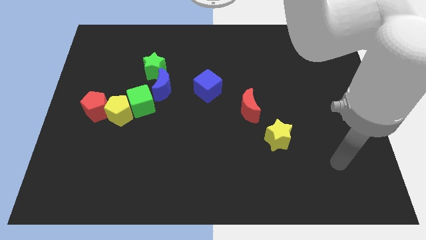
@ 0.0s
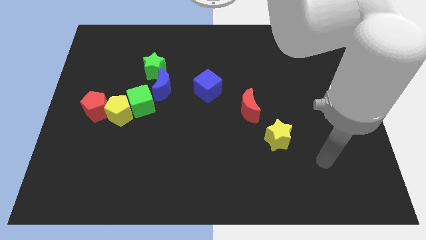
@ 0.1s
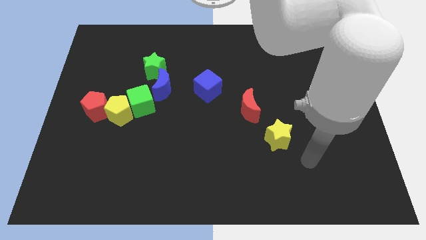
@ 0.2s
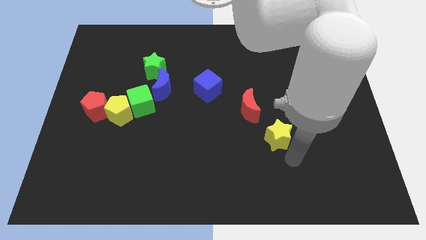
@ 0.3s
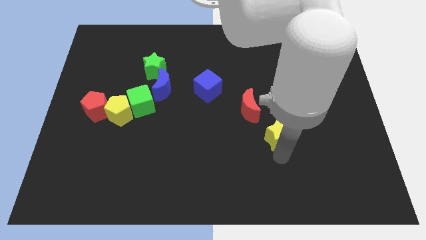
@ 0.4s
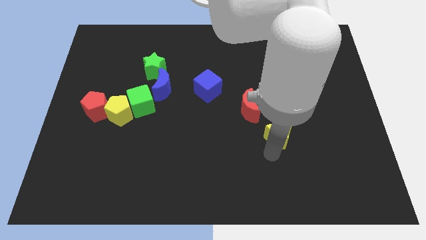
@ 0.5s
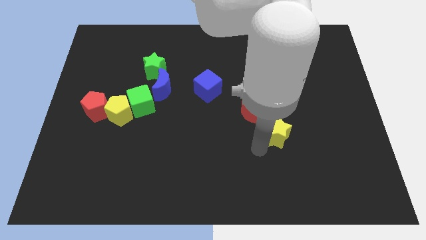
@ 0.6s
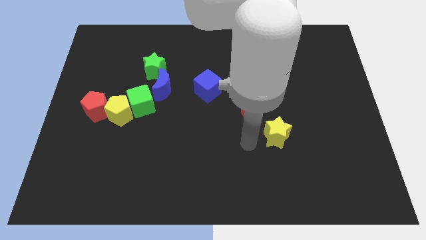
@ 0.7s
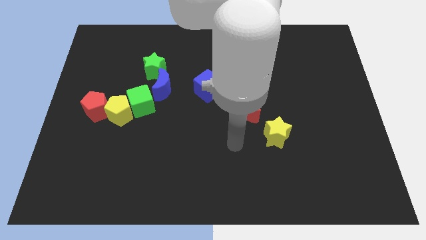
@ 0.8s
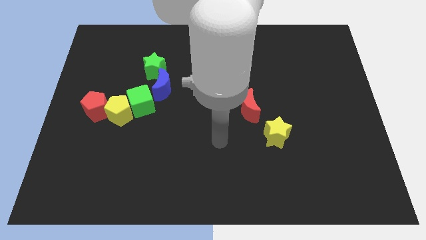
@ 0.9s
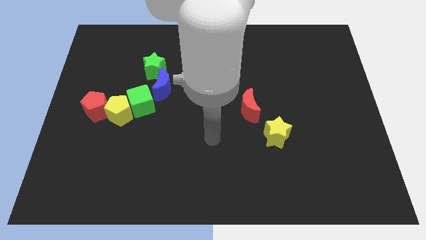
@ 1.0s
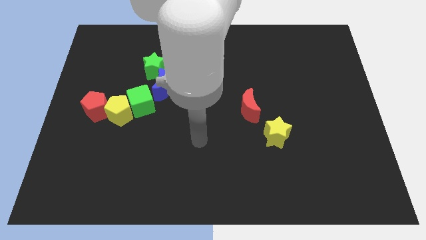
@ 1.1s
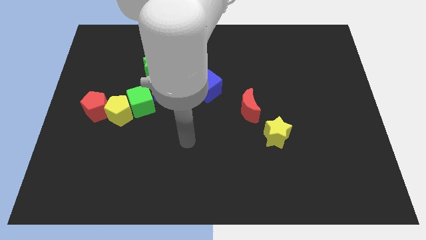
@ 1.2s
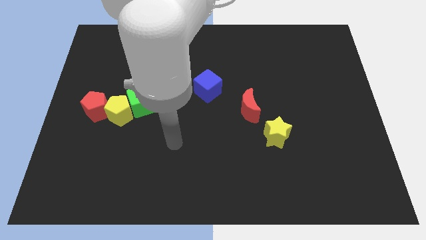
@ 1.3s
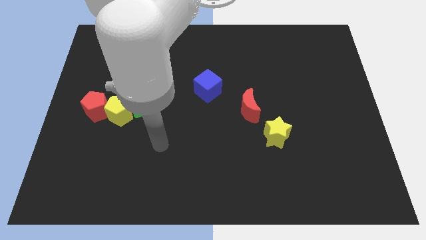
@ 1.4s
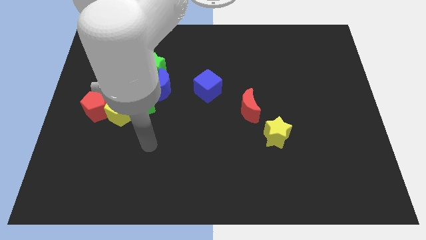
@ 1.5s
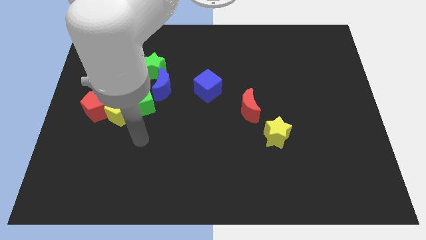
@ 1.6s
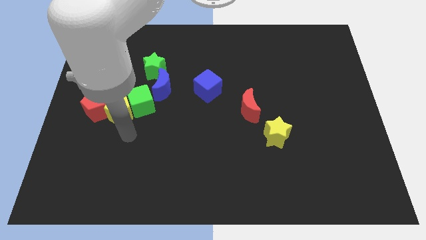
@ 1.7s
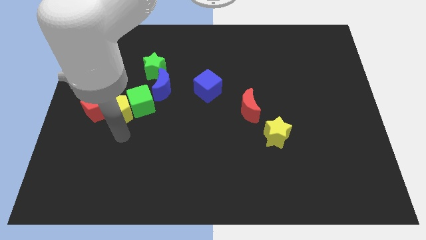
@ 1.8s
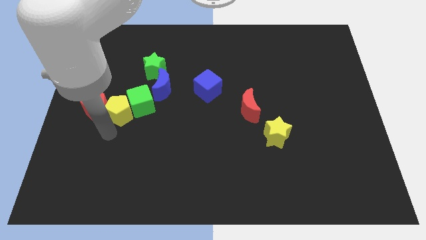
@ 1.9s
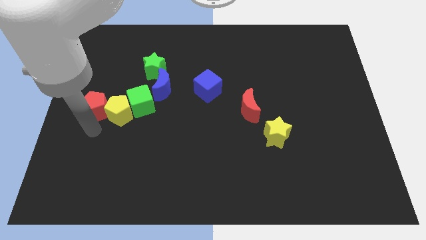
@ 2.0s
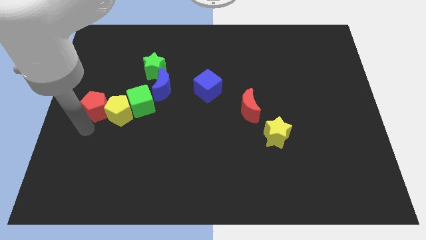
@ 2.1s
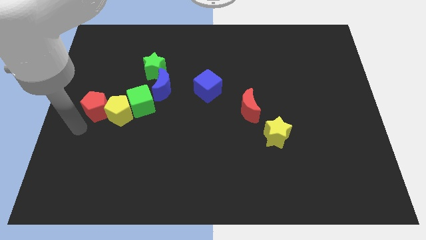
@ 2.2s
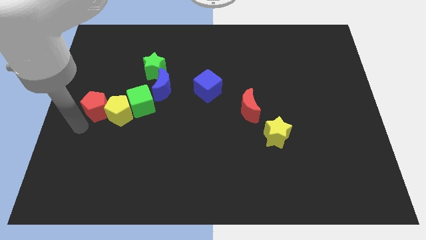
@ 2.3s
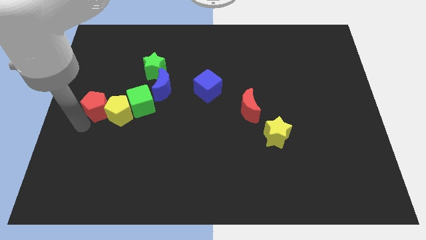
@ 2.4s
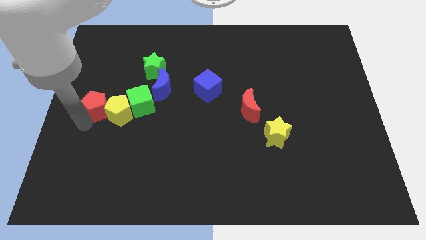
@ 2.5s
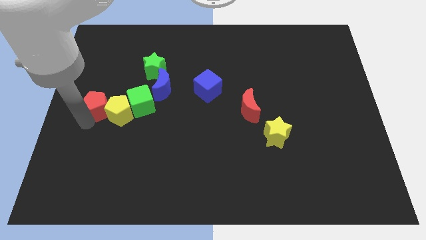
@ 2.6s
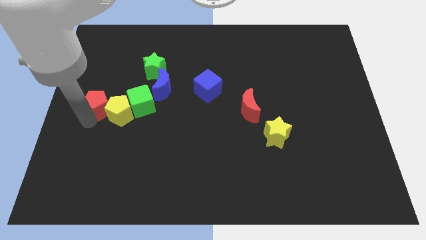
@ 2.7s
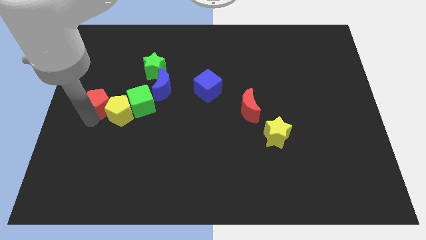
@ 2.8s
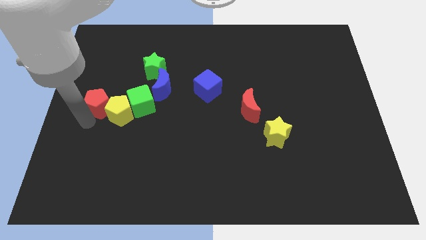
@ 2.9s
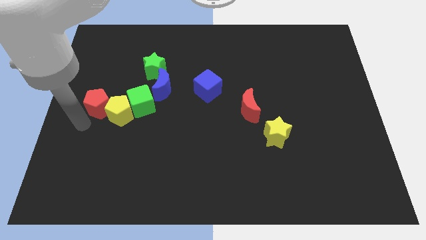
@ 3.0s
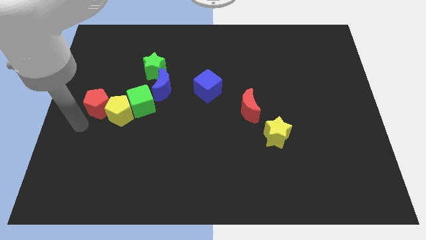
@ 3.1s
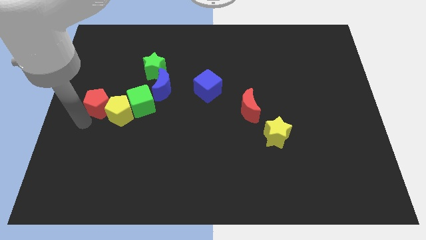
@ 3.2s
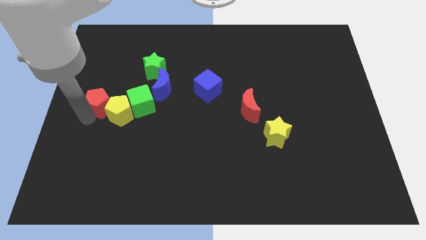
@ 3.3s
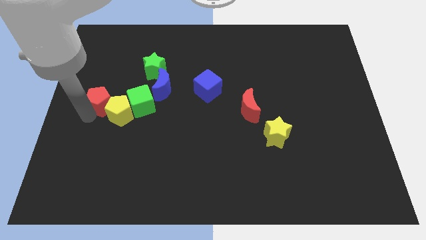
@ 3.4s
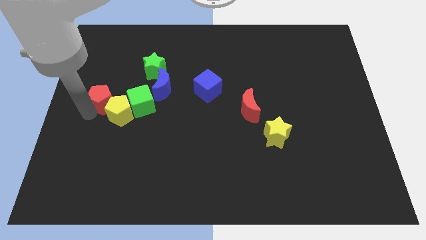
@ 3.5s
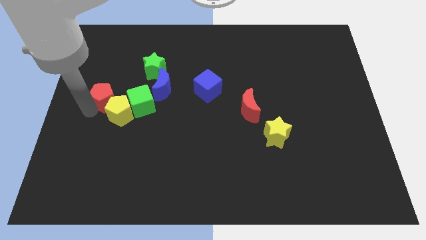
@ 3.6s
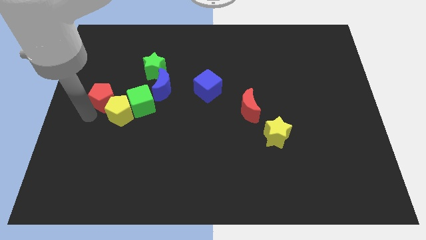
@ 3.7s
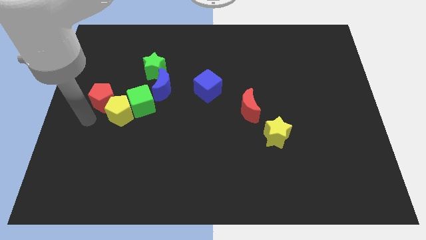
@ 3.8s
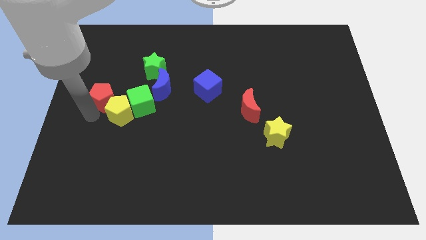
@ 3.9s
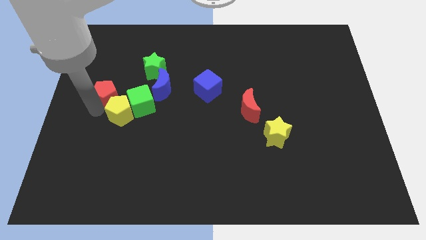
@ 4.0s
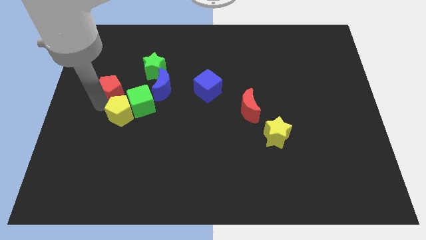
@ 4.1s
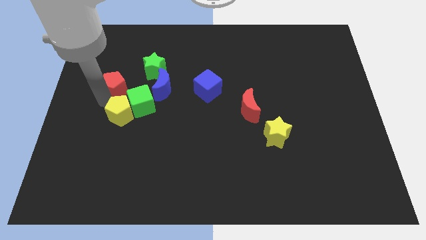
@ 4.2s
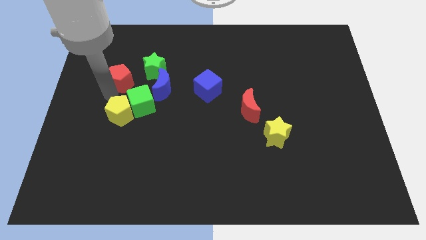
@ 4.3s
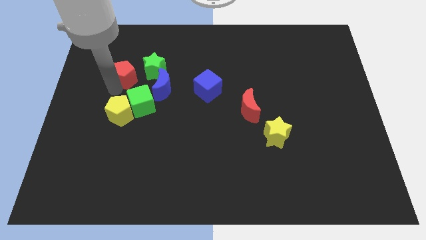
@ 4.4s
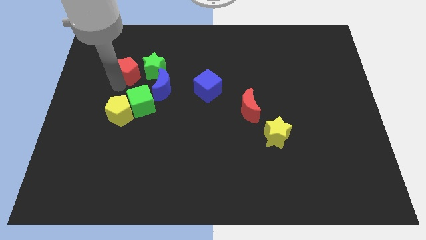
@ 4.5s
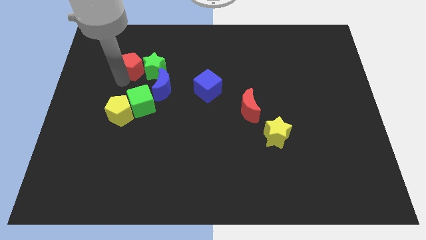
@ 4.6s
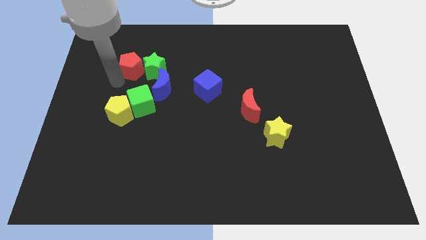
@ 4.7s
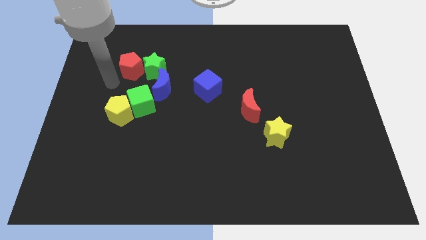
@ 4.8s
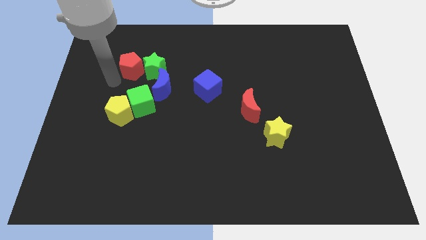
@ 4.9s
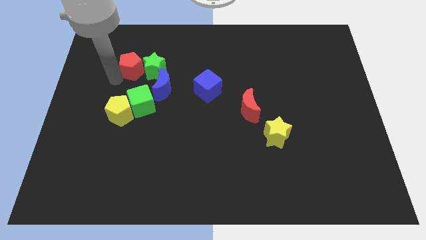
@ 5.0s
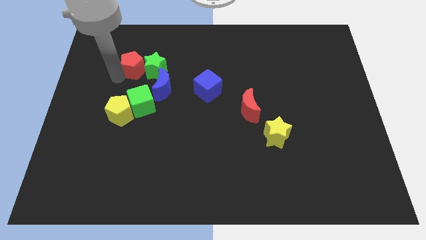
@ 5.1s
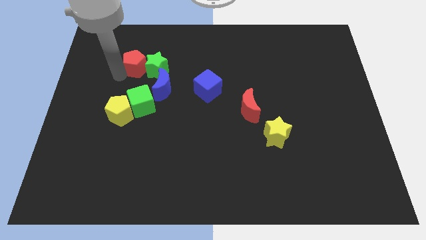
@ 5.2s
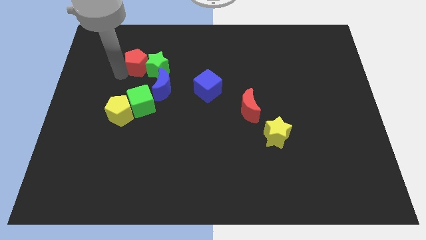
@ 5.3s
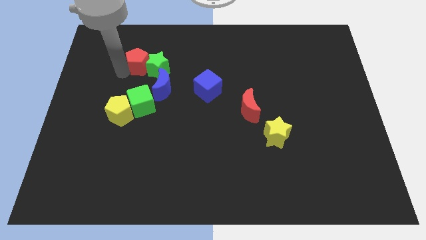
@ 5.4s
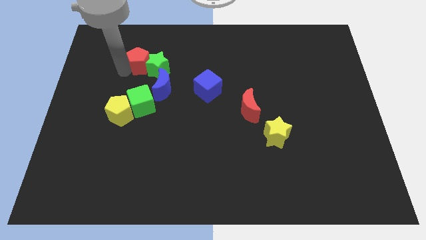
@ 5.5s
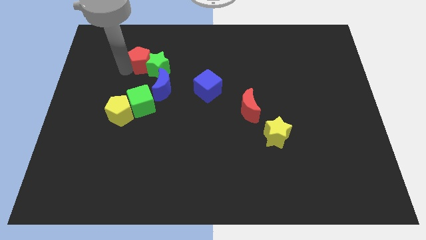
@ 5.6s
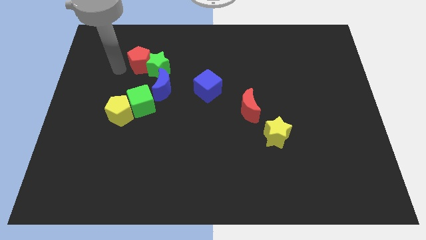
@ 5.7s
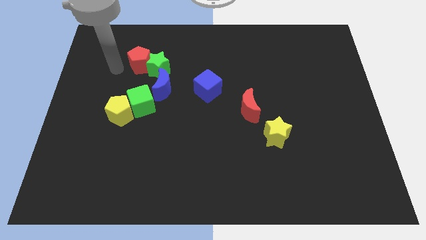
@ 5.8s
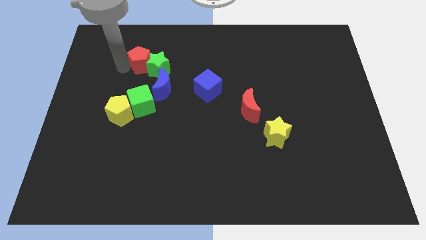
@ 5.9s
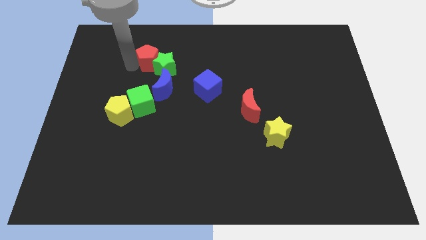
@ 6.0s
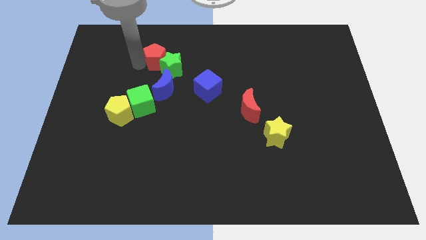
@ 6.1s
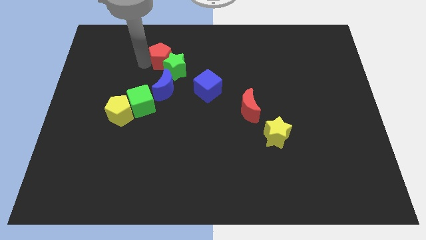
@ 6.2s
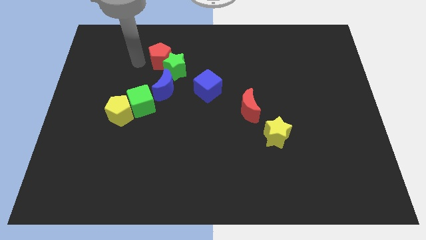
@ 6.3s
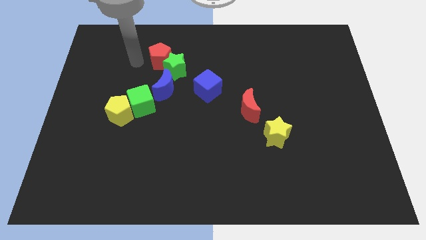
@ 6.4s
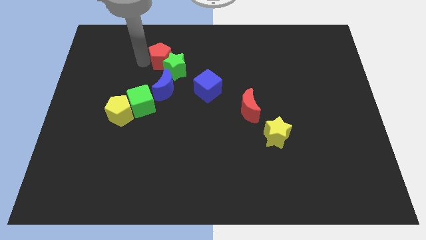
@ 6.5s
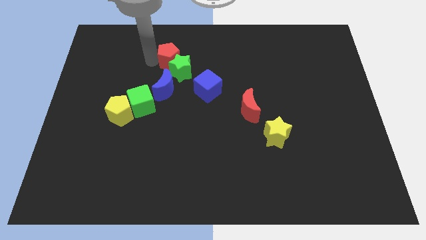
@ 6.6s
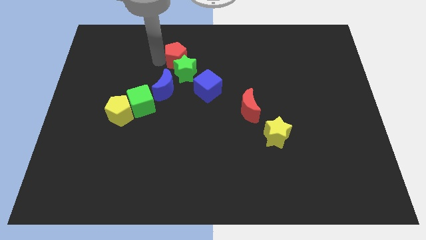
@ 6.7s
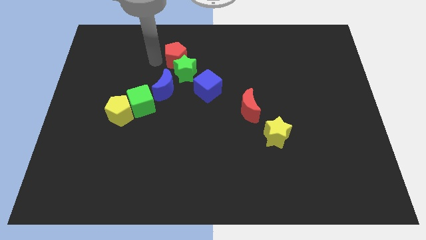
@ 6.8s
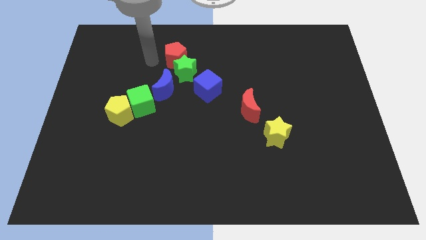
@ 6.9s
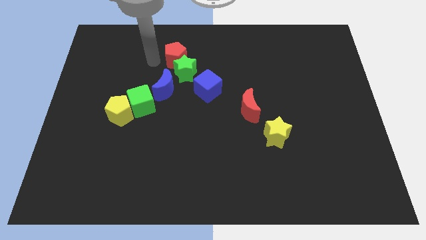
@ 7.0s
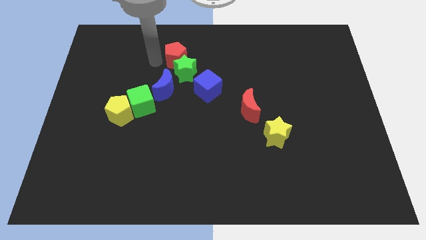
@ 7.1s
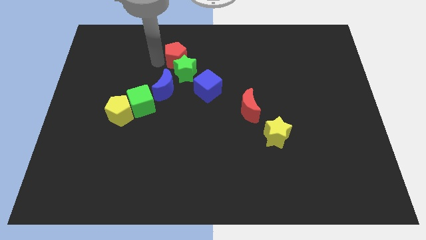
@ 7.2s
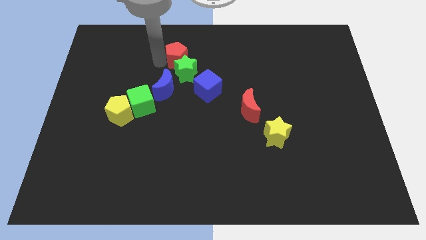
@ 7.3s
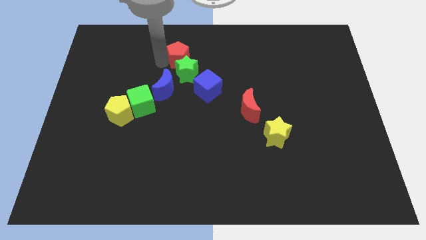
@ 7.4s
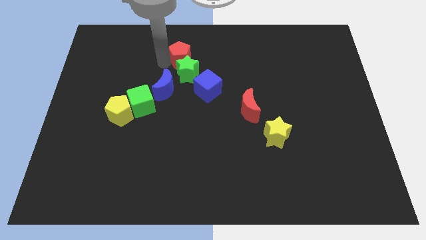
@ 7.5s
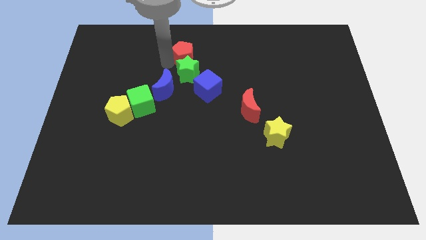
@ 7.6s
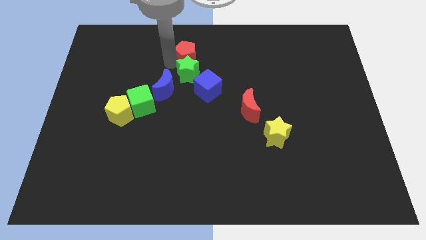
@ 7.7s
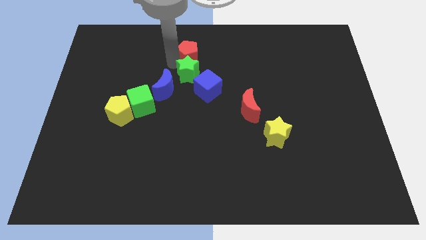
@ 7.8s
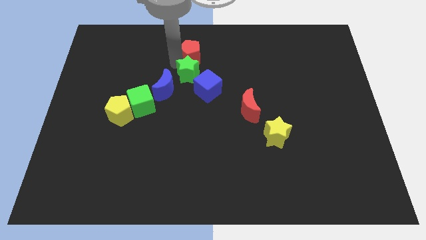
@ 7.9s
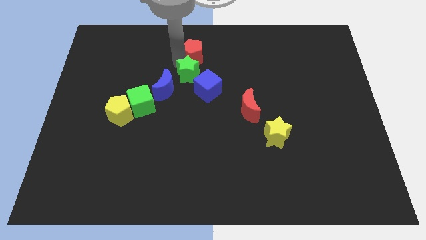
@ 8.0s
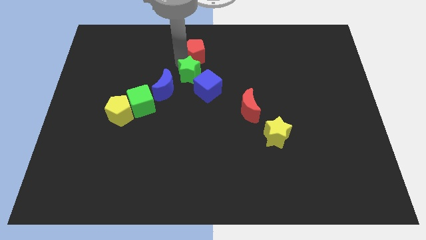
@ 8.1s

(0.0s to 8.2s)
put the red pentagon to the top side
